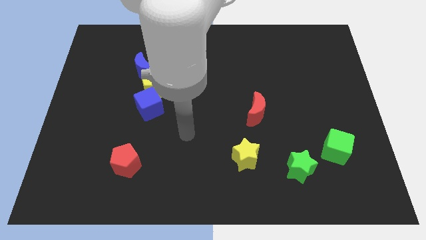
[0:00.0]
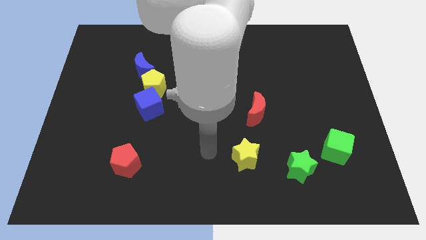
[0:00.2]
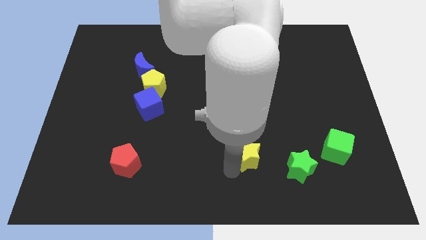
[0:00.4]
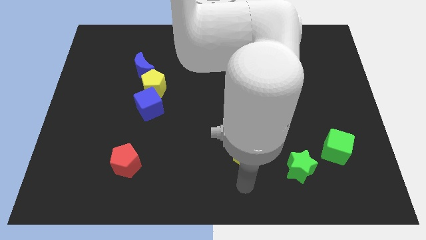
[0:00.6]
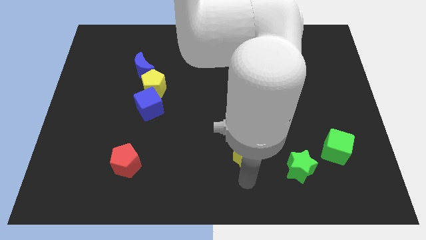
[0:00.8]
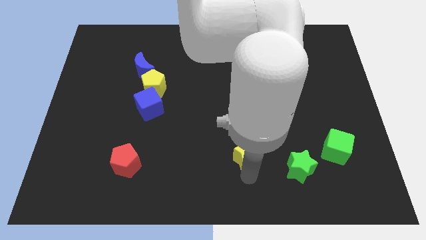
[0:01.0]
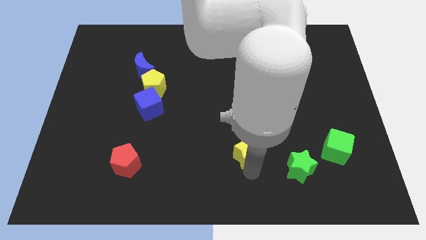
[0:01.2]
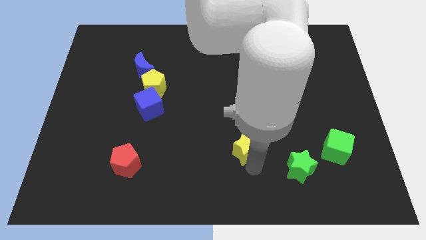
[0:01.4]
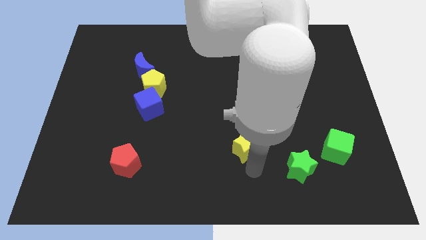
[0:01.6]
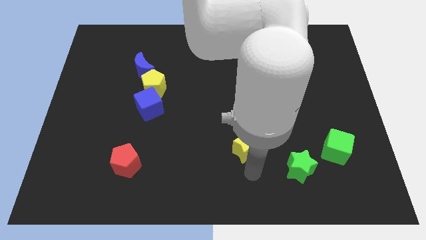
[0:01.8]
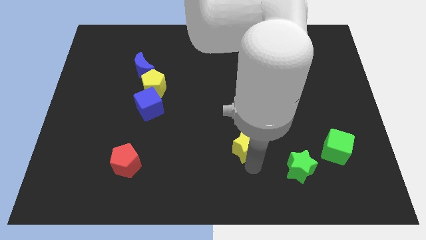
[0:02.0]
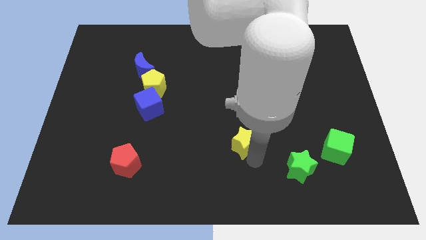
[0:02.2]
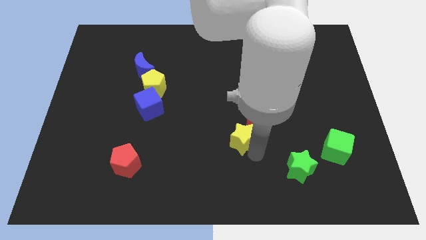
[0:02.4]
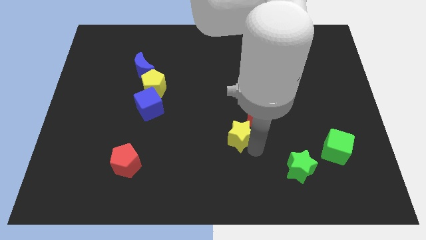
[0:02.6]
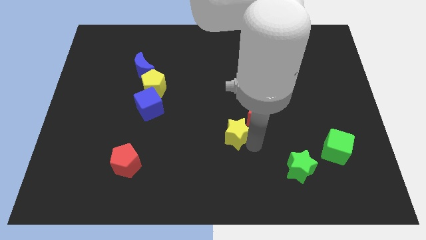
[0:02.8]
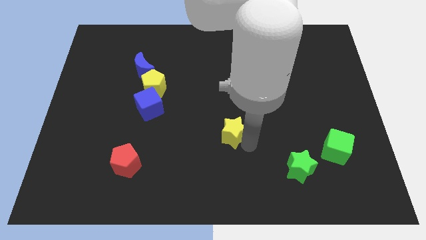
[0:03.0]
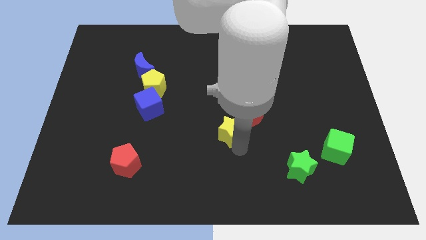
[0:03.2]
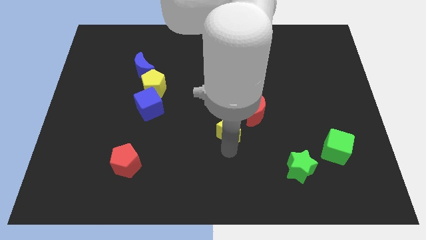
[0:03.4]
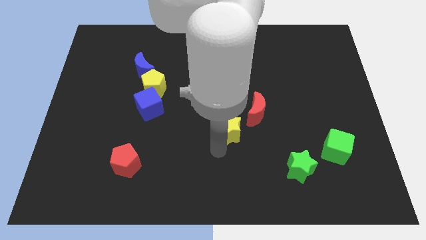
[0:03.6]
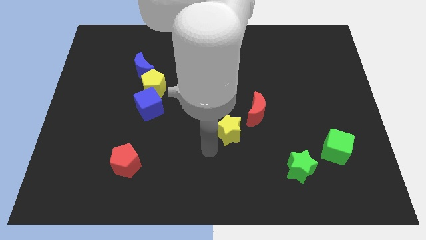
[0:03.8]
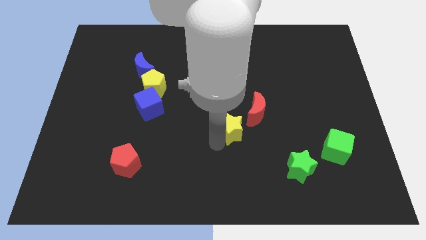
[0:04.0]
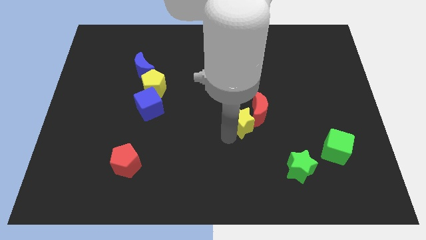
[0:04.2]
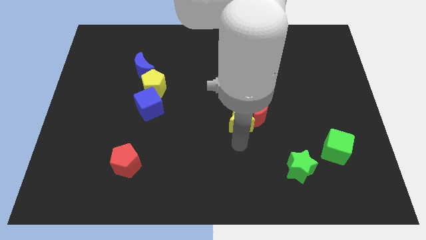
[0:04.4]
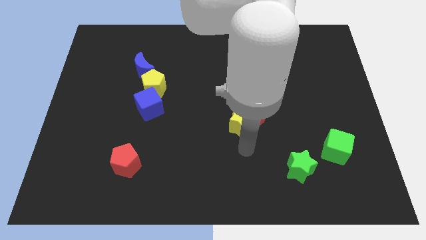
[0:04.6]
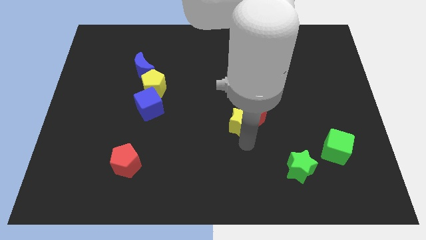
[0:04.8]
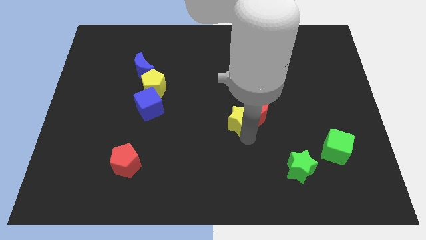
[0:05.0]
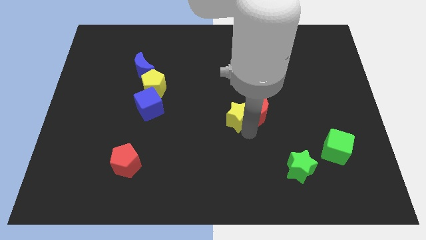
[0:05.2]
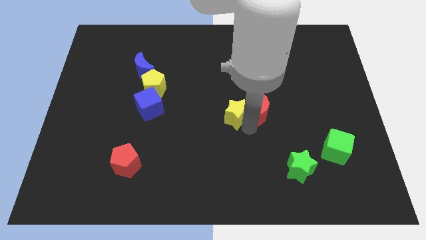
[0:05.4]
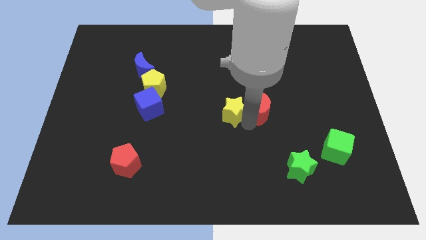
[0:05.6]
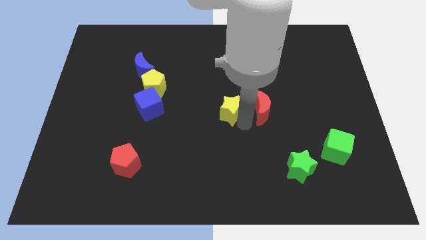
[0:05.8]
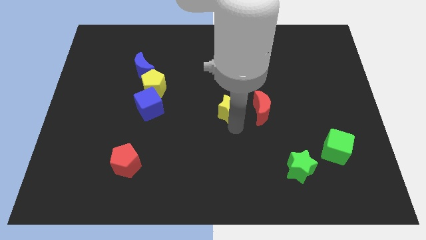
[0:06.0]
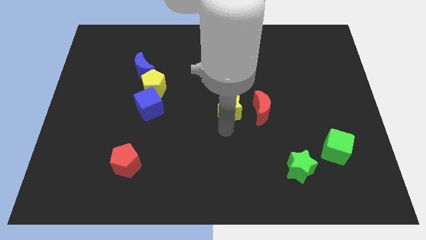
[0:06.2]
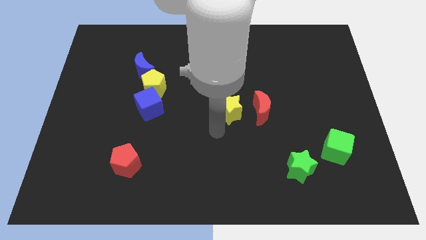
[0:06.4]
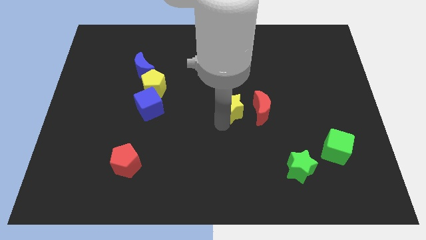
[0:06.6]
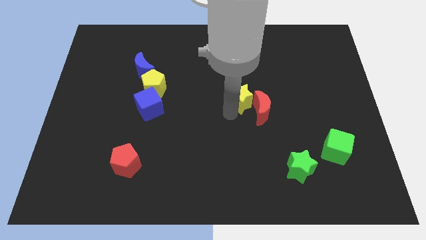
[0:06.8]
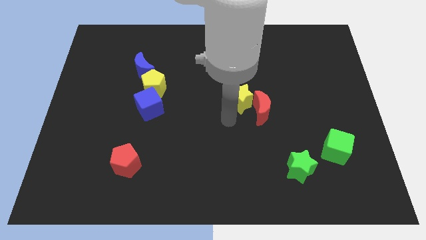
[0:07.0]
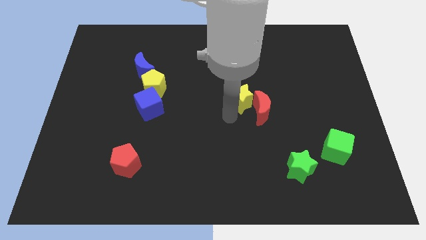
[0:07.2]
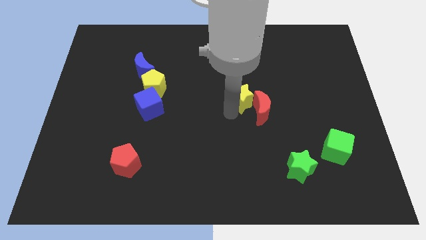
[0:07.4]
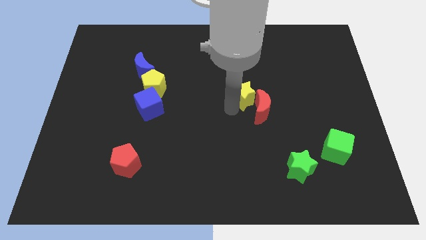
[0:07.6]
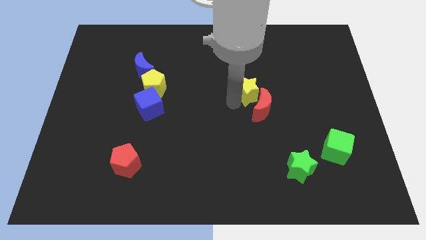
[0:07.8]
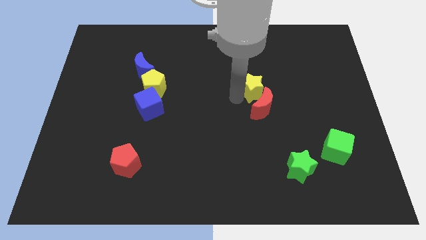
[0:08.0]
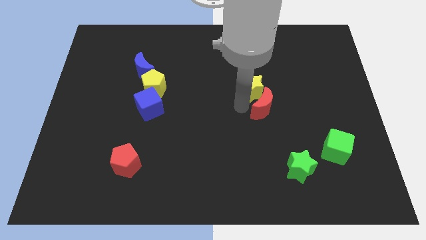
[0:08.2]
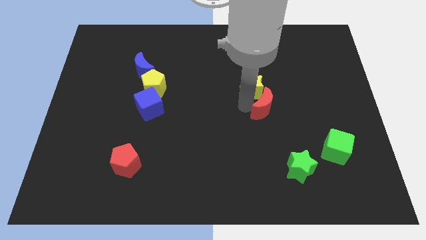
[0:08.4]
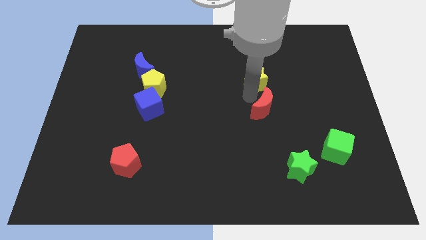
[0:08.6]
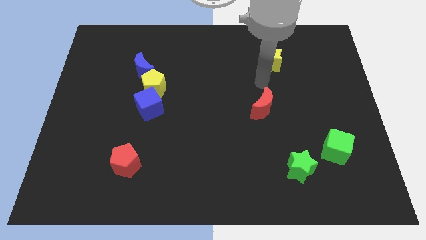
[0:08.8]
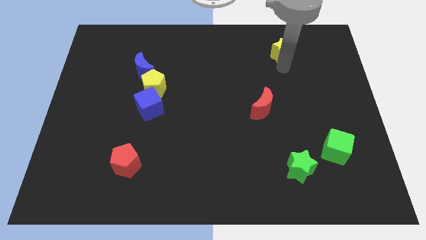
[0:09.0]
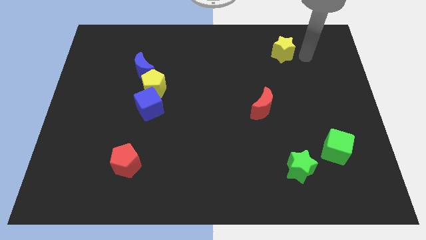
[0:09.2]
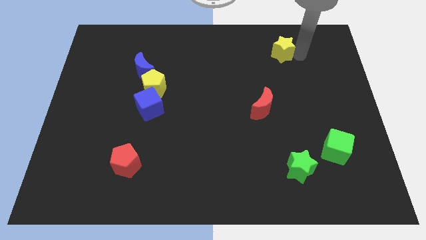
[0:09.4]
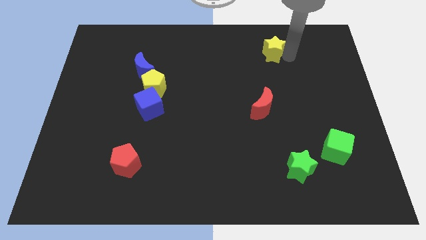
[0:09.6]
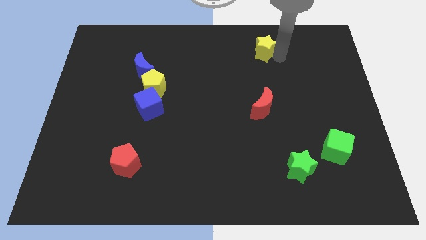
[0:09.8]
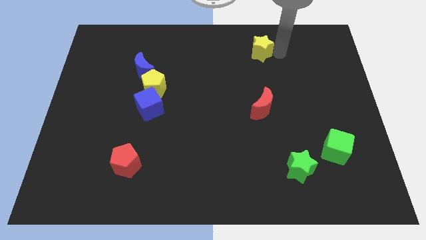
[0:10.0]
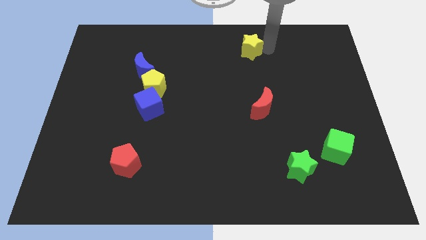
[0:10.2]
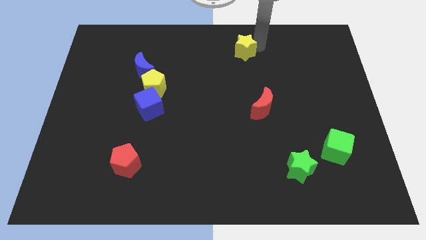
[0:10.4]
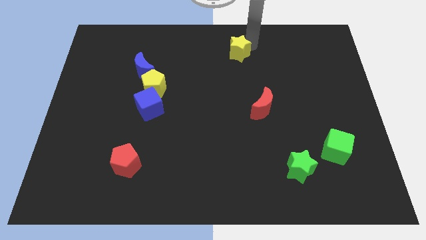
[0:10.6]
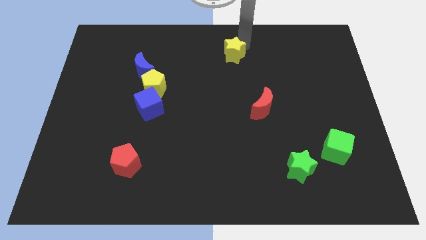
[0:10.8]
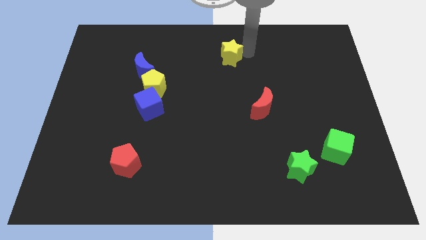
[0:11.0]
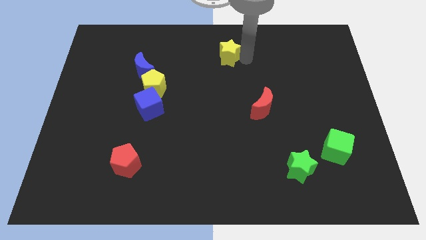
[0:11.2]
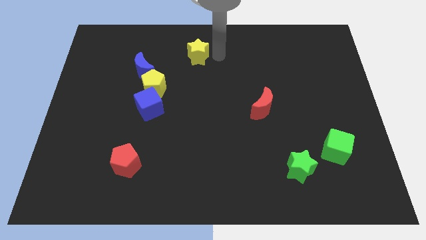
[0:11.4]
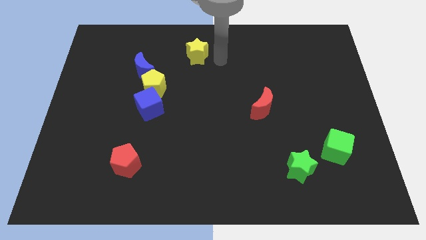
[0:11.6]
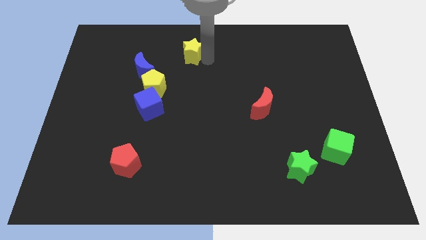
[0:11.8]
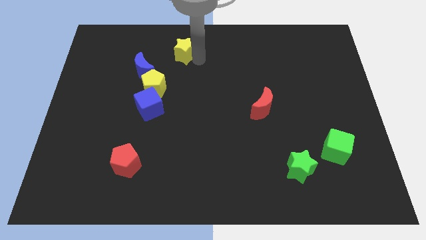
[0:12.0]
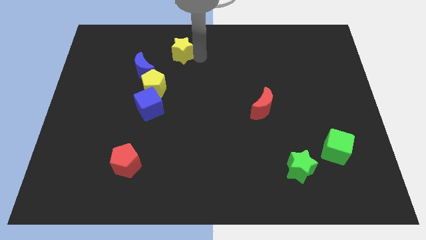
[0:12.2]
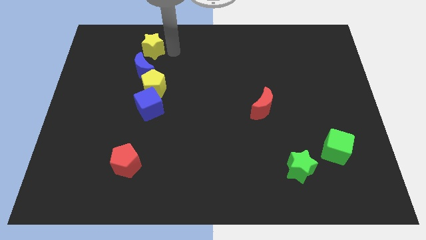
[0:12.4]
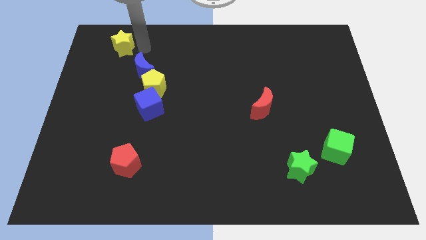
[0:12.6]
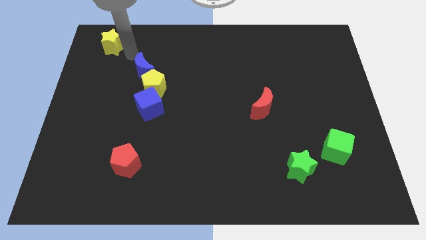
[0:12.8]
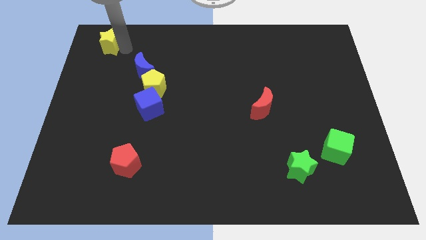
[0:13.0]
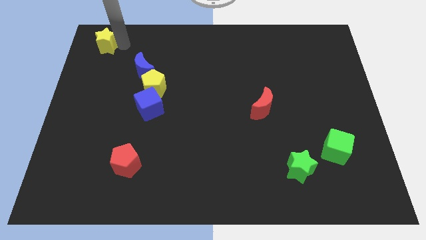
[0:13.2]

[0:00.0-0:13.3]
move the yellow star to the upper left corner
